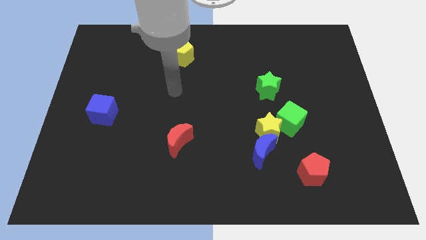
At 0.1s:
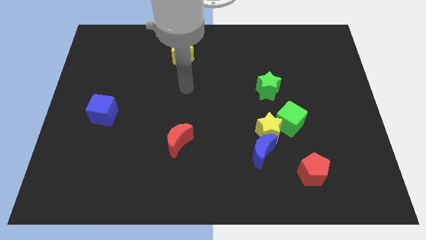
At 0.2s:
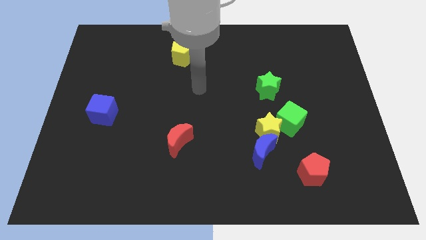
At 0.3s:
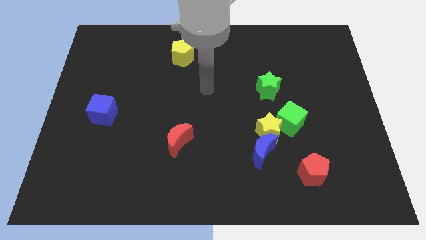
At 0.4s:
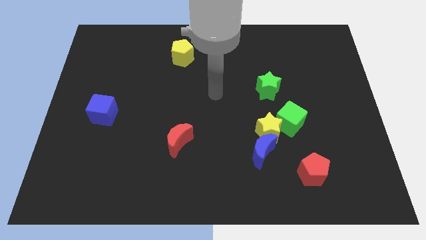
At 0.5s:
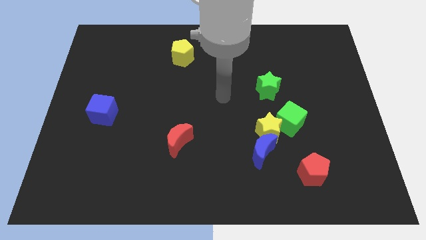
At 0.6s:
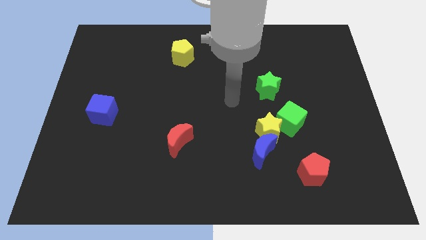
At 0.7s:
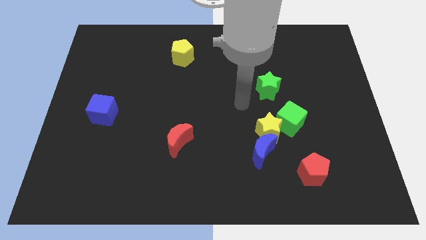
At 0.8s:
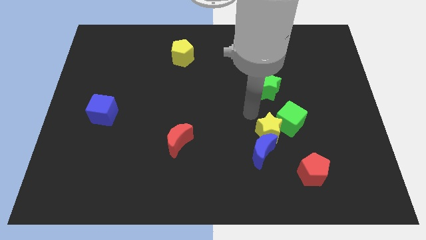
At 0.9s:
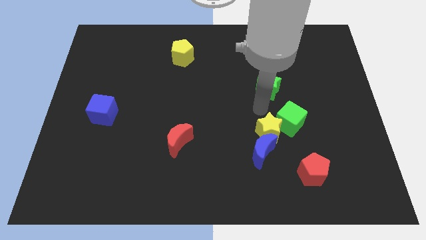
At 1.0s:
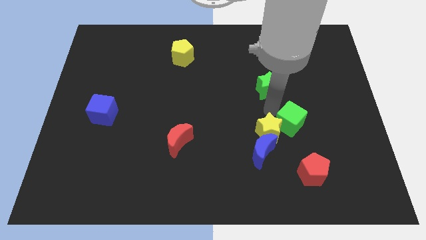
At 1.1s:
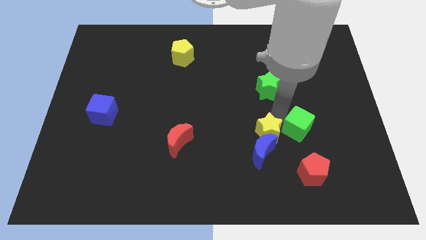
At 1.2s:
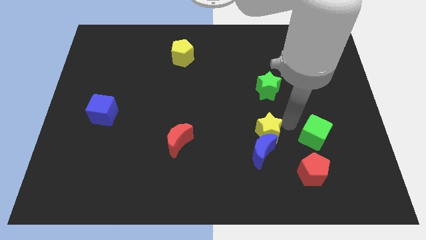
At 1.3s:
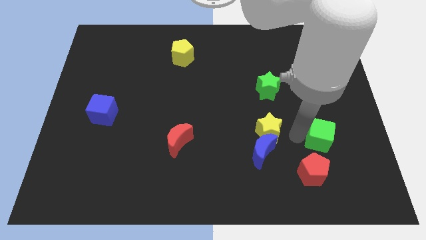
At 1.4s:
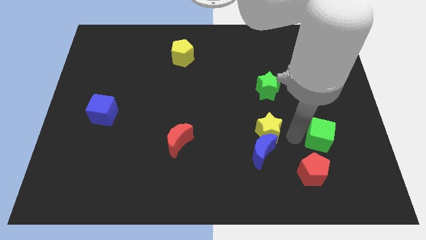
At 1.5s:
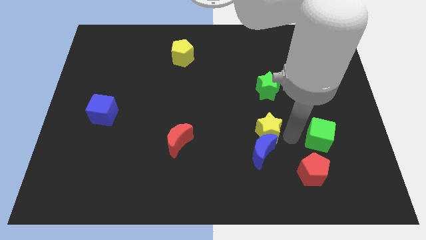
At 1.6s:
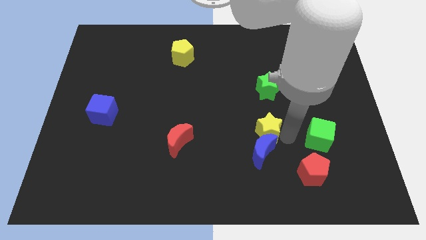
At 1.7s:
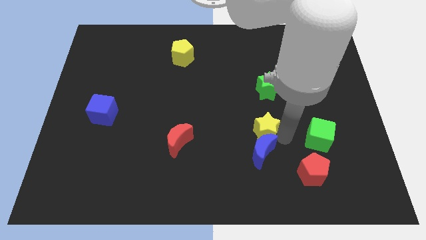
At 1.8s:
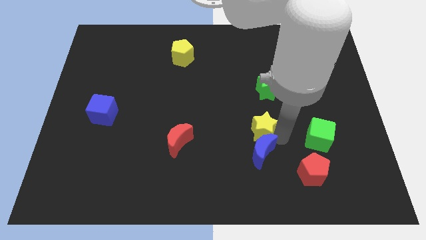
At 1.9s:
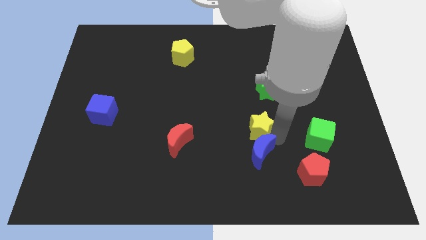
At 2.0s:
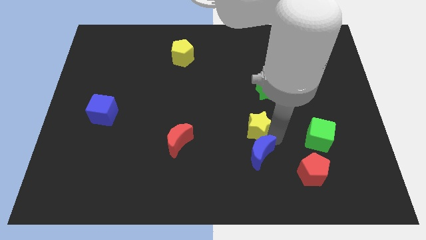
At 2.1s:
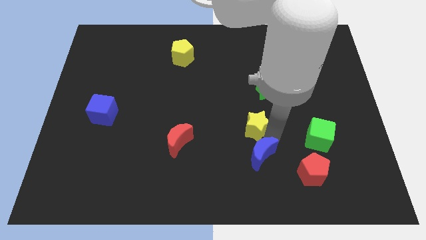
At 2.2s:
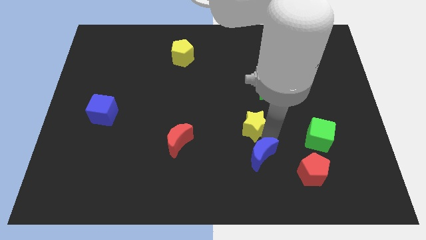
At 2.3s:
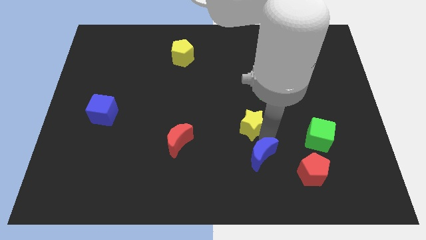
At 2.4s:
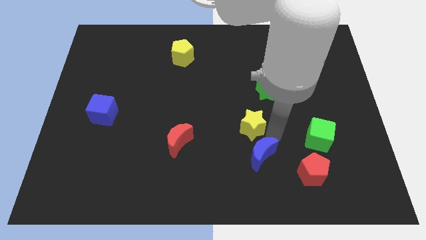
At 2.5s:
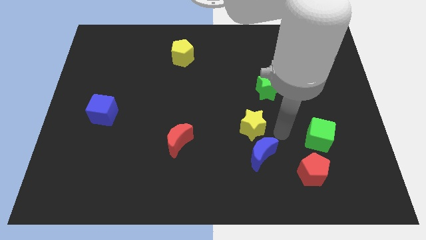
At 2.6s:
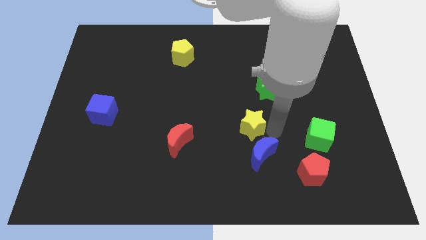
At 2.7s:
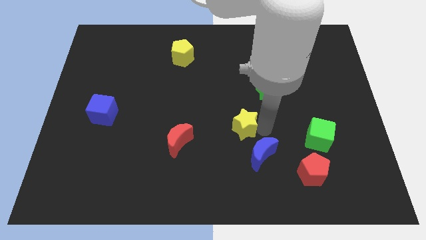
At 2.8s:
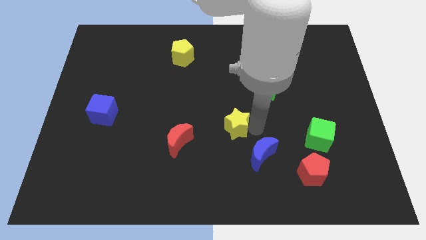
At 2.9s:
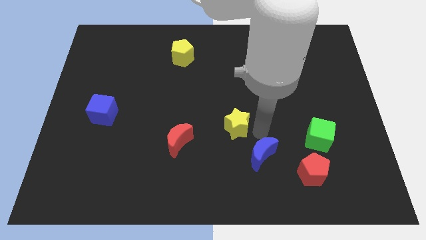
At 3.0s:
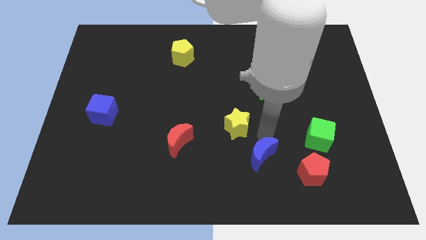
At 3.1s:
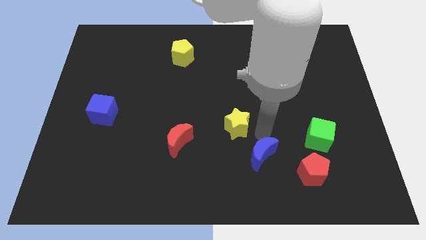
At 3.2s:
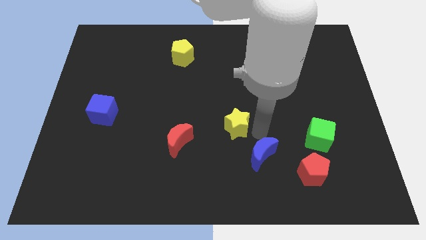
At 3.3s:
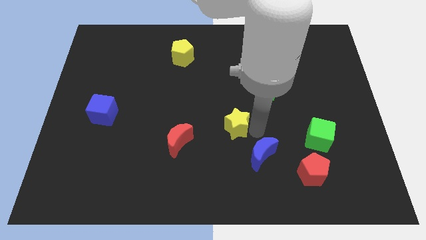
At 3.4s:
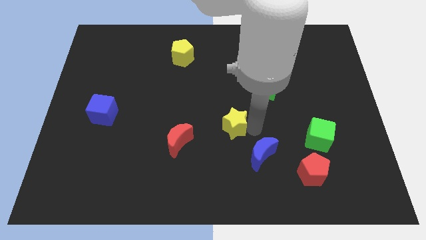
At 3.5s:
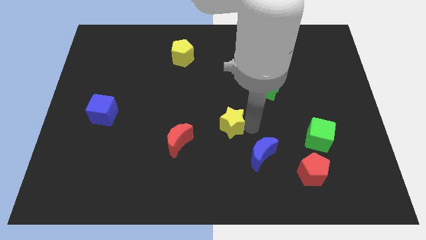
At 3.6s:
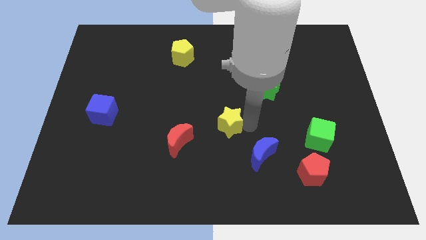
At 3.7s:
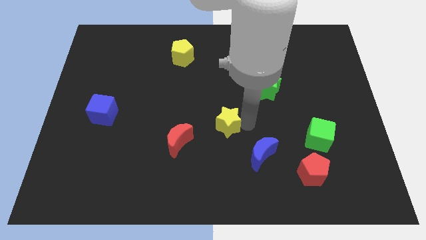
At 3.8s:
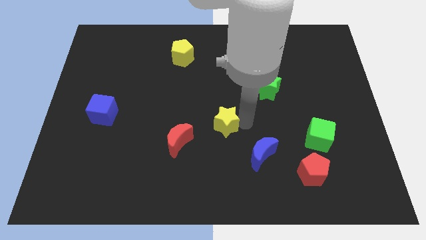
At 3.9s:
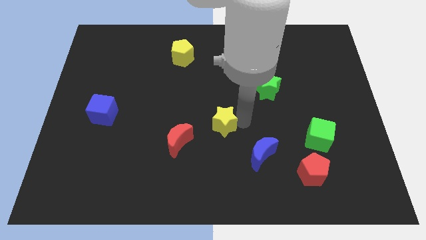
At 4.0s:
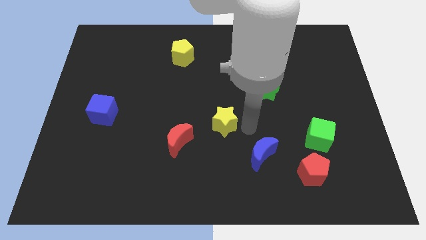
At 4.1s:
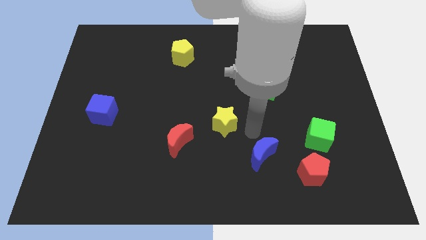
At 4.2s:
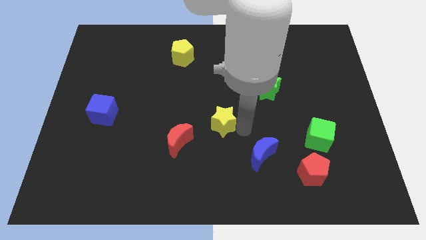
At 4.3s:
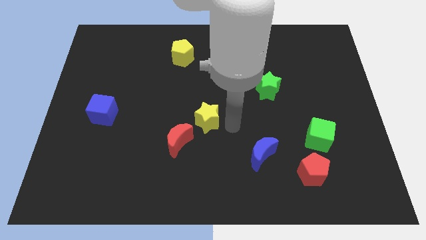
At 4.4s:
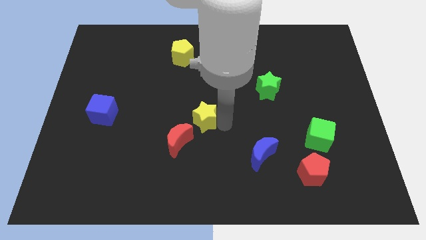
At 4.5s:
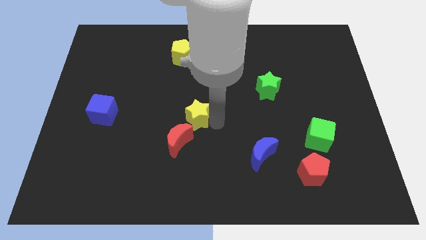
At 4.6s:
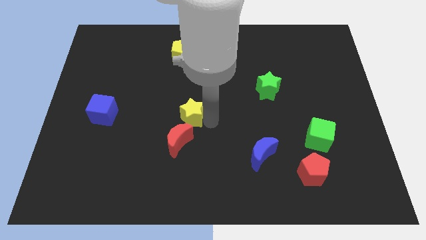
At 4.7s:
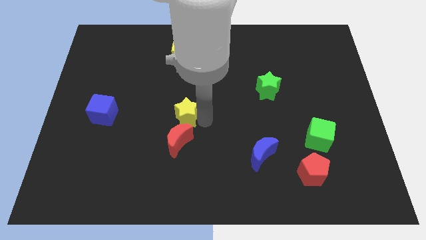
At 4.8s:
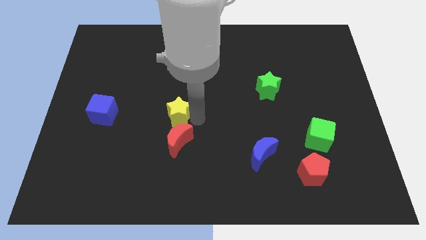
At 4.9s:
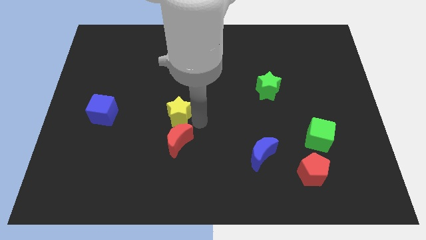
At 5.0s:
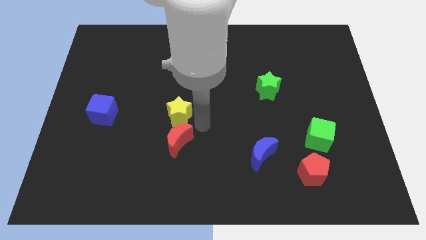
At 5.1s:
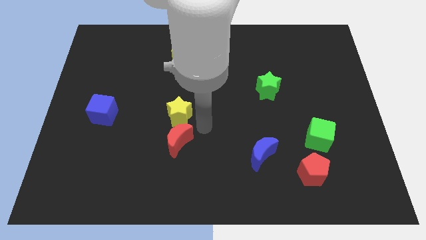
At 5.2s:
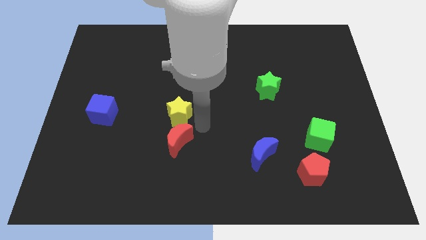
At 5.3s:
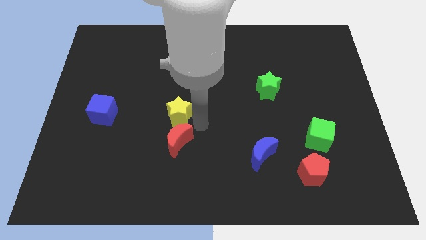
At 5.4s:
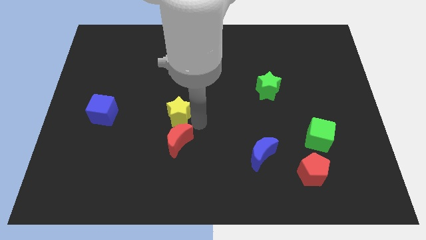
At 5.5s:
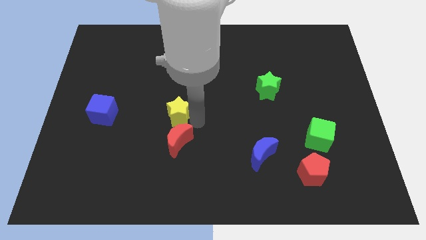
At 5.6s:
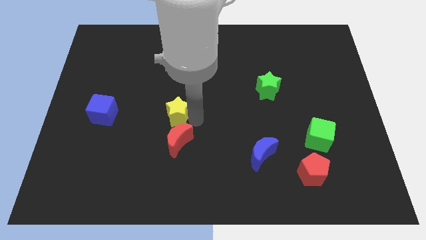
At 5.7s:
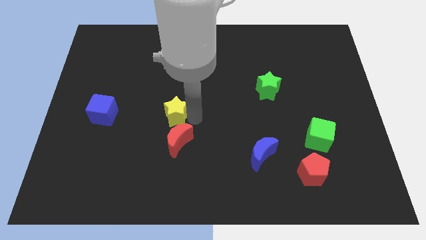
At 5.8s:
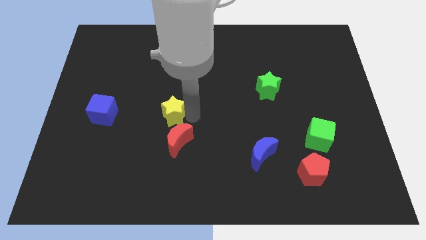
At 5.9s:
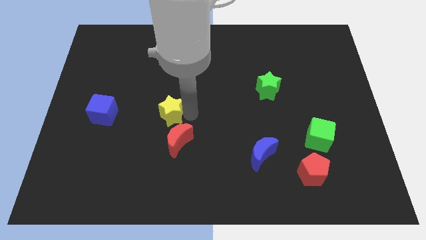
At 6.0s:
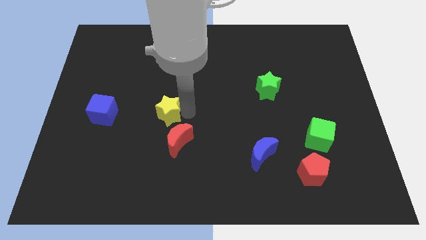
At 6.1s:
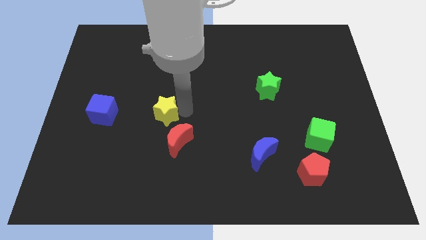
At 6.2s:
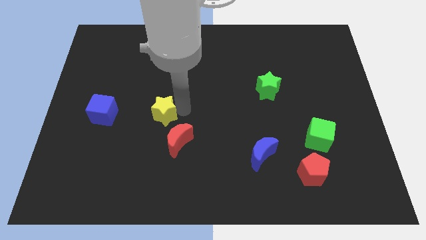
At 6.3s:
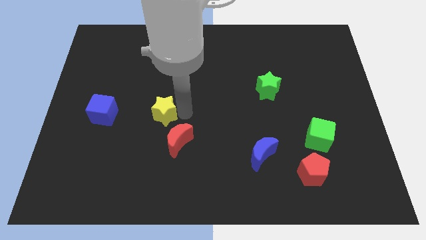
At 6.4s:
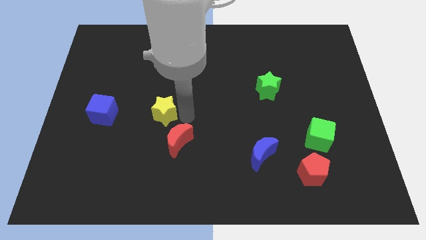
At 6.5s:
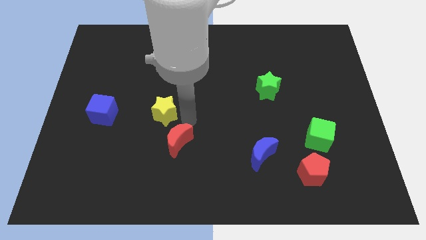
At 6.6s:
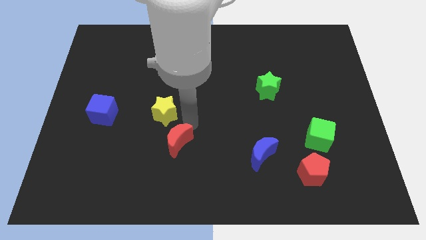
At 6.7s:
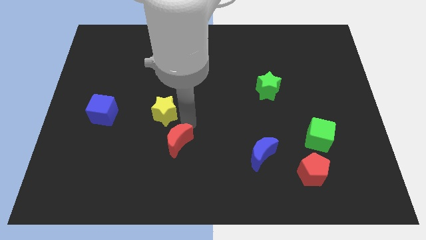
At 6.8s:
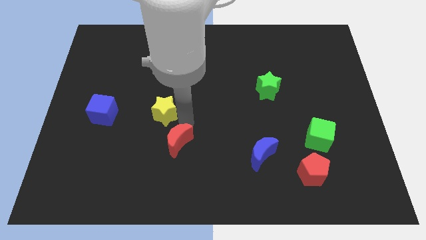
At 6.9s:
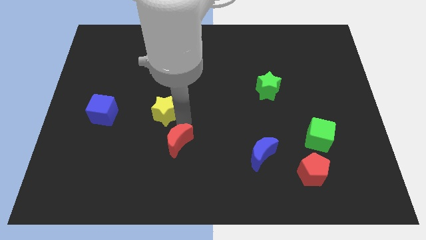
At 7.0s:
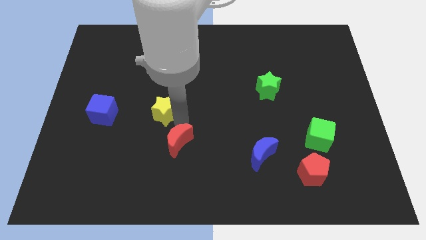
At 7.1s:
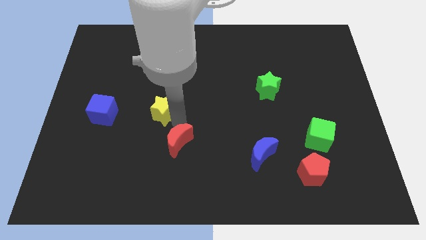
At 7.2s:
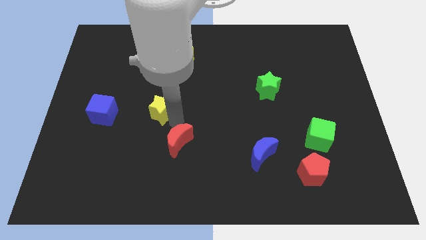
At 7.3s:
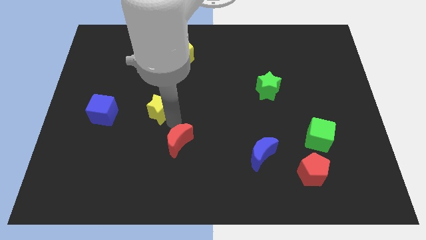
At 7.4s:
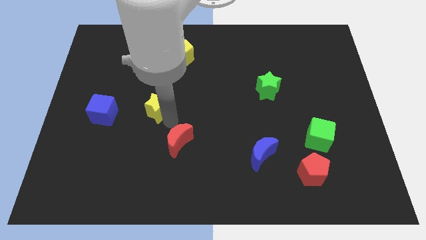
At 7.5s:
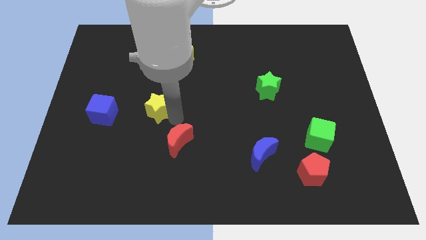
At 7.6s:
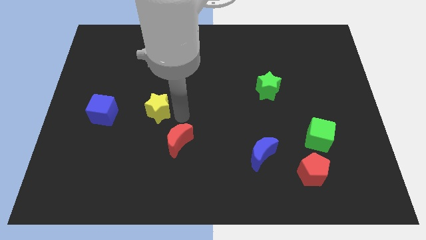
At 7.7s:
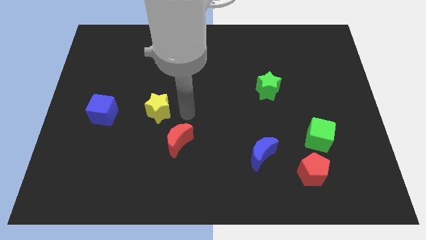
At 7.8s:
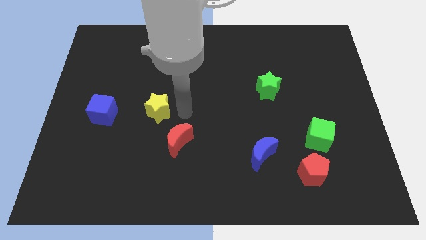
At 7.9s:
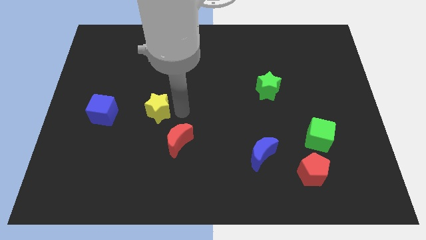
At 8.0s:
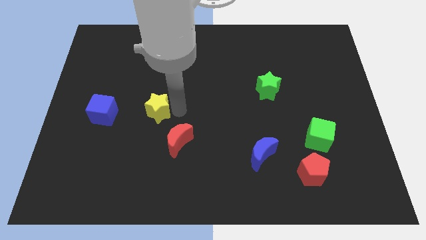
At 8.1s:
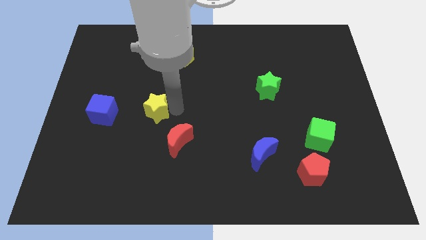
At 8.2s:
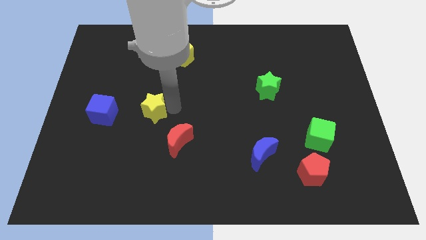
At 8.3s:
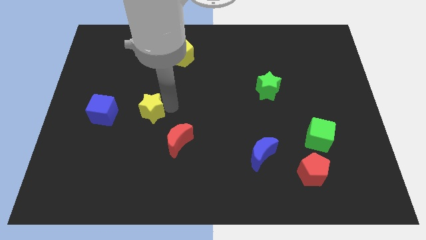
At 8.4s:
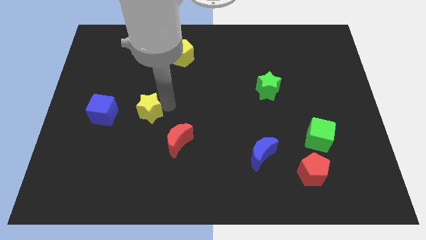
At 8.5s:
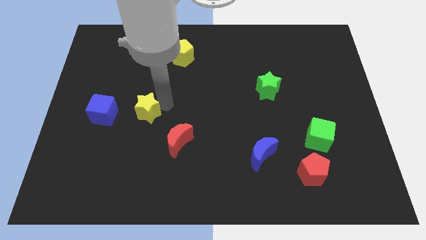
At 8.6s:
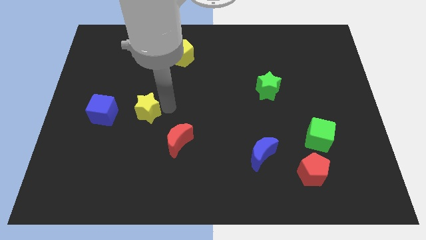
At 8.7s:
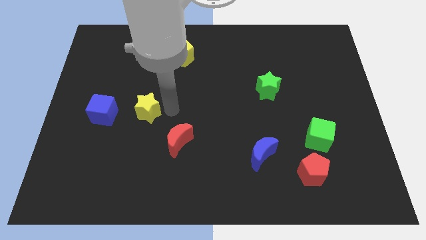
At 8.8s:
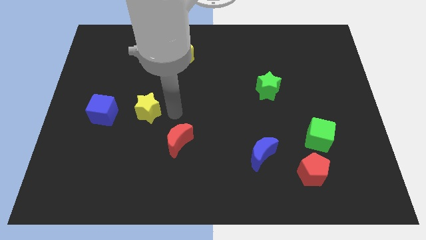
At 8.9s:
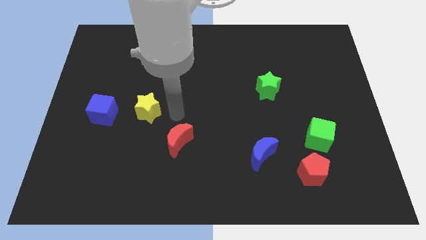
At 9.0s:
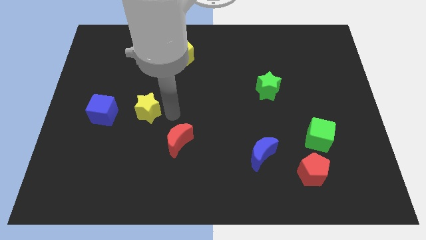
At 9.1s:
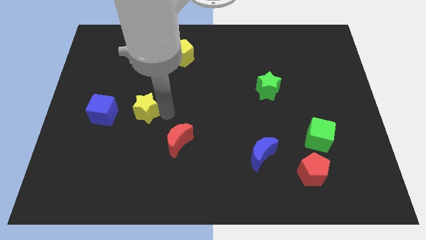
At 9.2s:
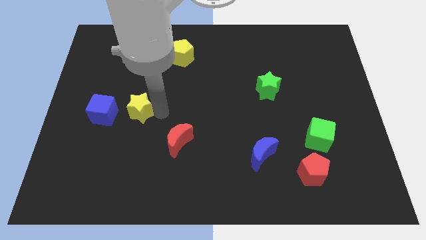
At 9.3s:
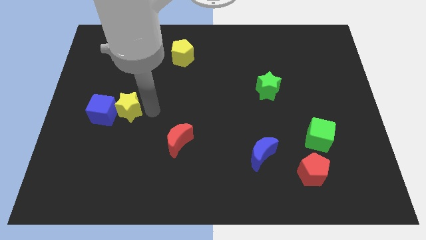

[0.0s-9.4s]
put the yellow star next to the blue cube
